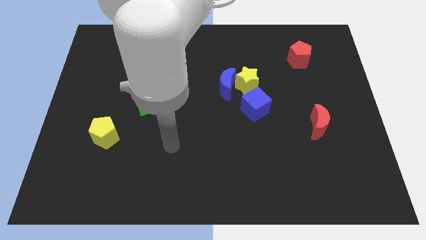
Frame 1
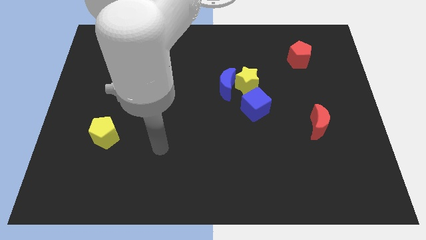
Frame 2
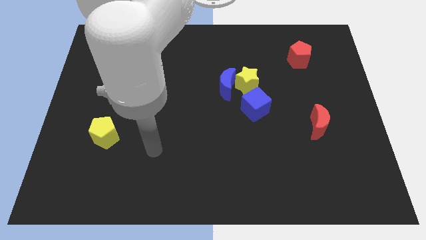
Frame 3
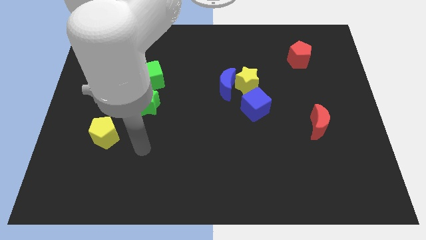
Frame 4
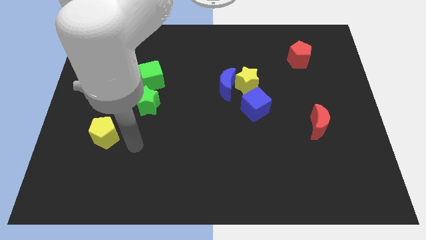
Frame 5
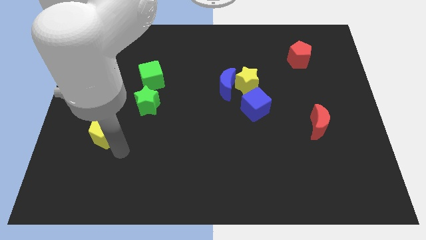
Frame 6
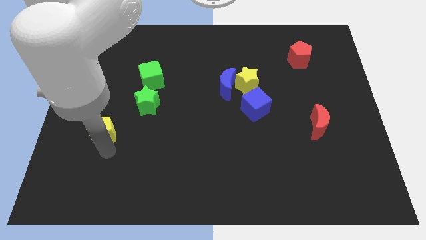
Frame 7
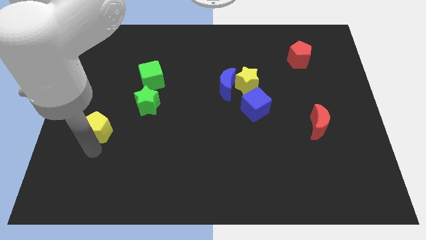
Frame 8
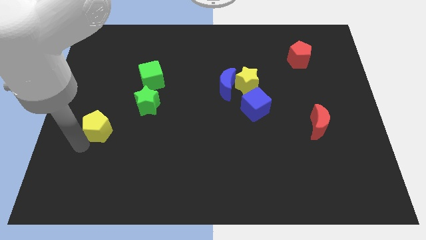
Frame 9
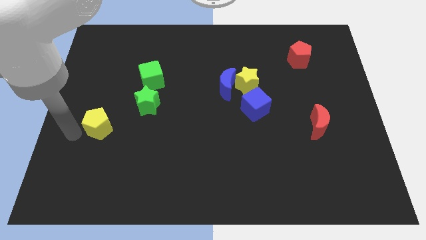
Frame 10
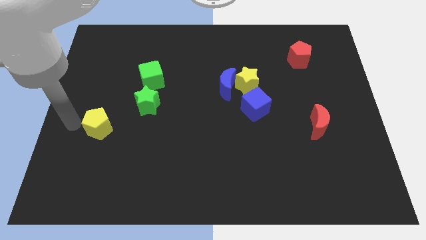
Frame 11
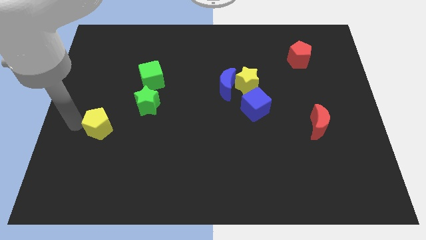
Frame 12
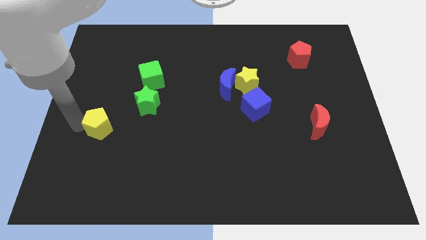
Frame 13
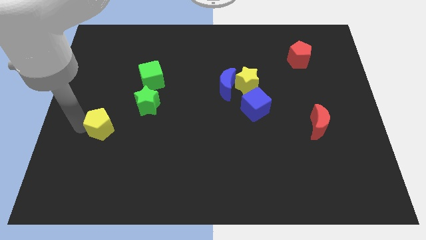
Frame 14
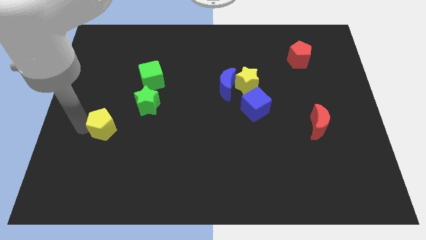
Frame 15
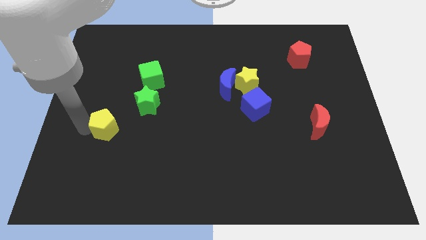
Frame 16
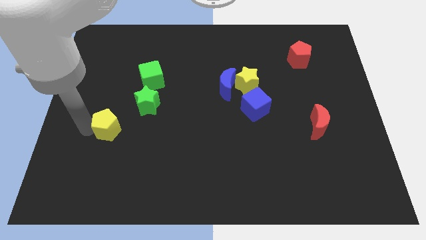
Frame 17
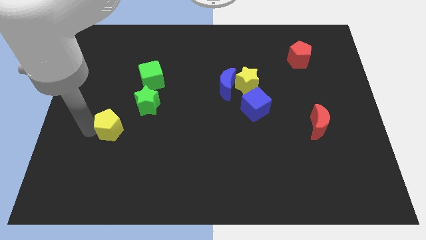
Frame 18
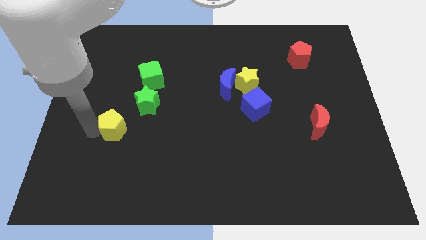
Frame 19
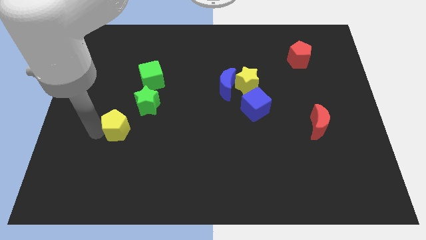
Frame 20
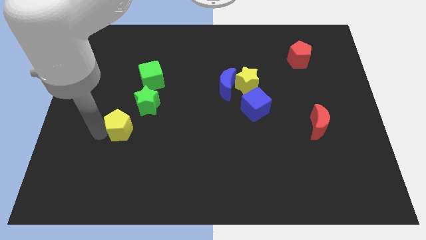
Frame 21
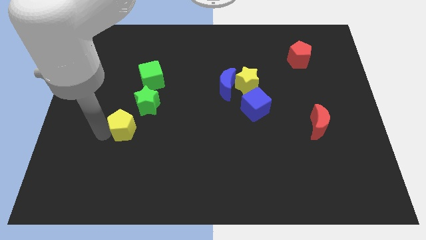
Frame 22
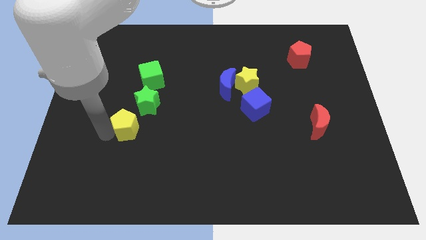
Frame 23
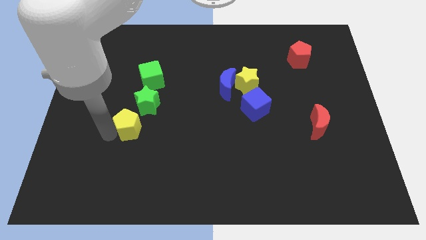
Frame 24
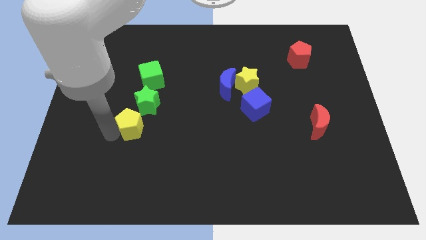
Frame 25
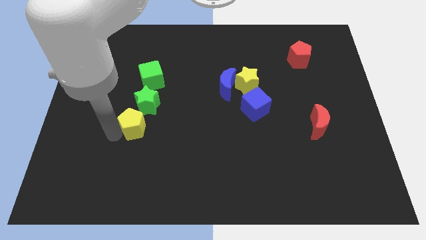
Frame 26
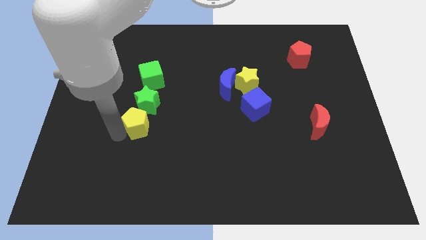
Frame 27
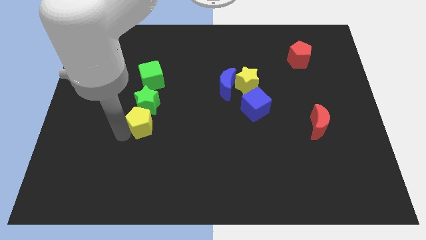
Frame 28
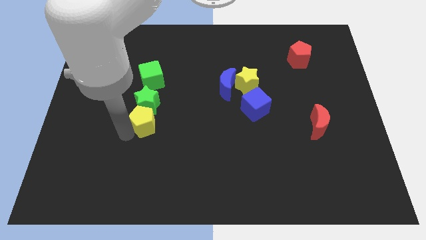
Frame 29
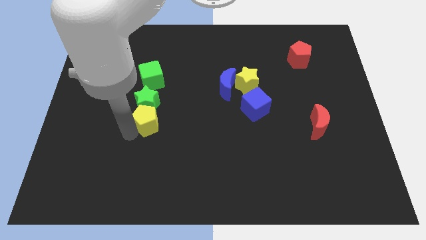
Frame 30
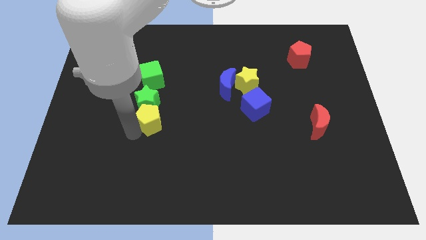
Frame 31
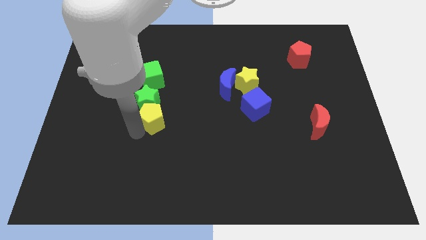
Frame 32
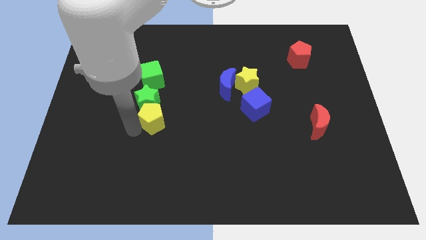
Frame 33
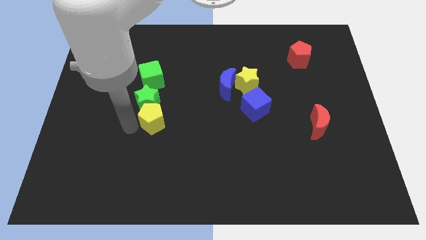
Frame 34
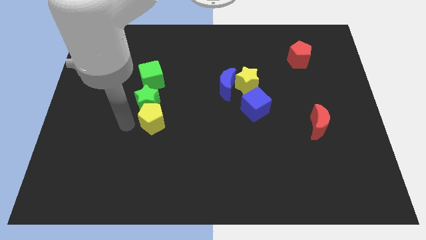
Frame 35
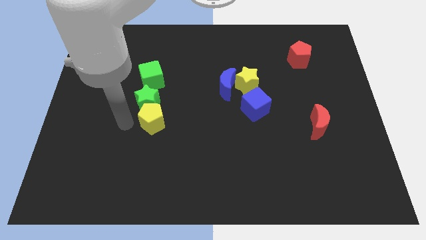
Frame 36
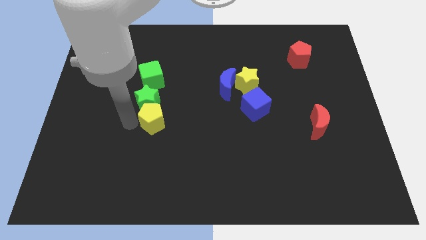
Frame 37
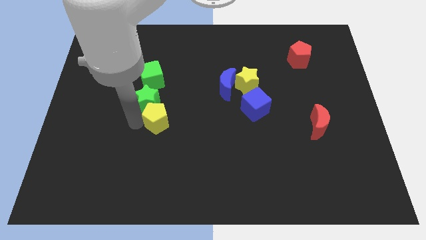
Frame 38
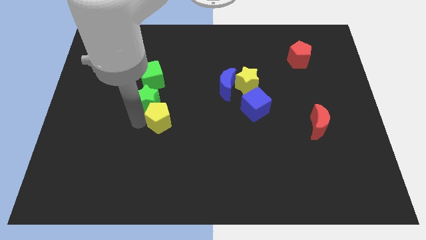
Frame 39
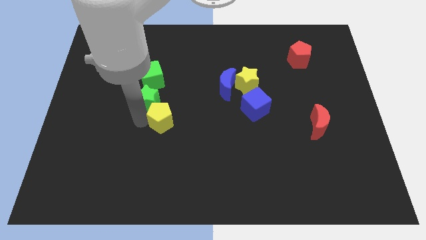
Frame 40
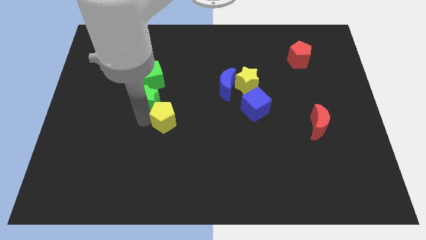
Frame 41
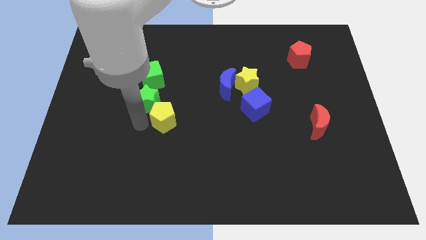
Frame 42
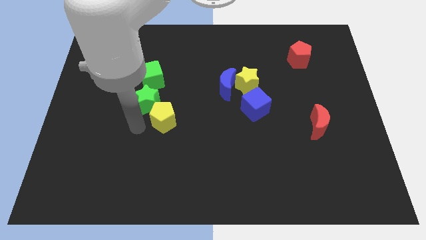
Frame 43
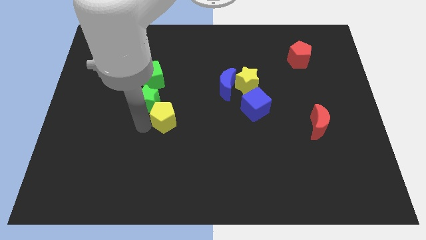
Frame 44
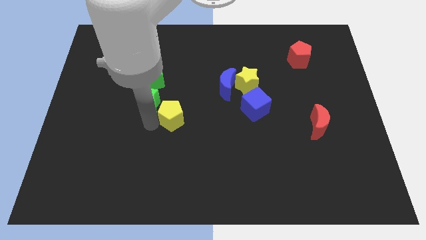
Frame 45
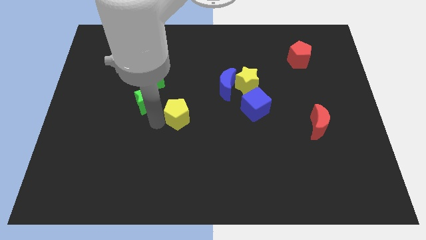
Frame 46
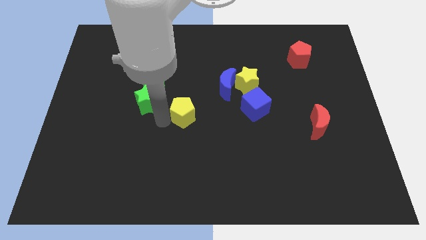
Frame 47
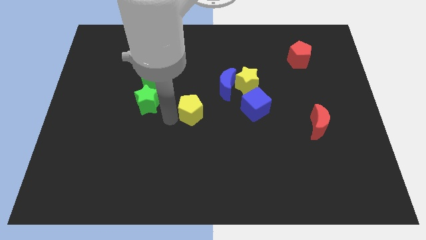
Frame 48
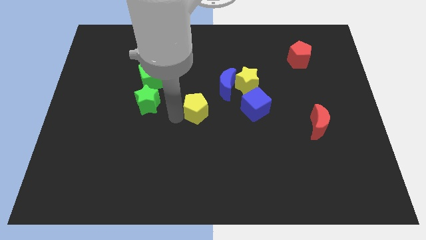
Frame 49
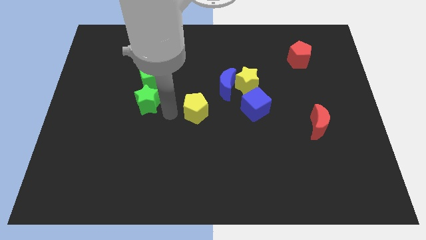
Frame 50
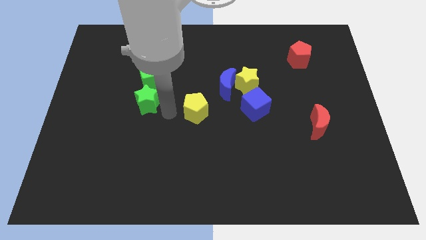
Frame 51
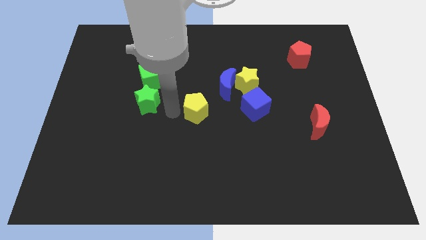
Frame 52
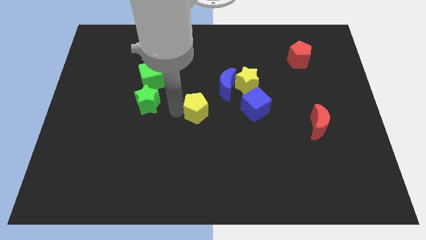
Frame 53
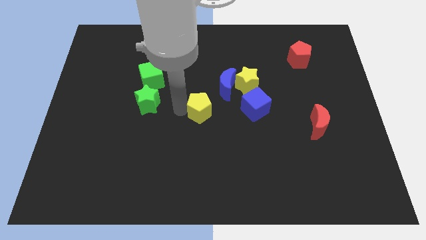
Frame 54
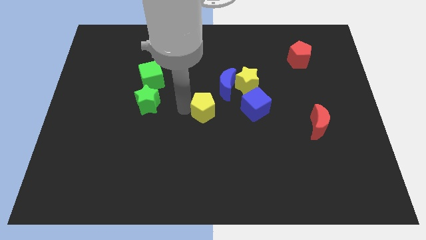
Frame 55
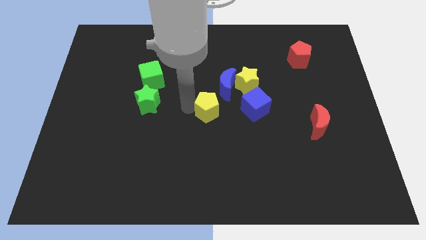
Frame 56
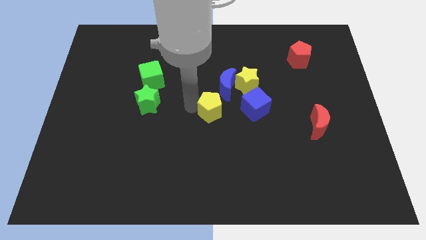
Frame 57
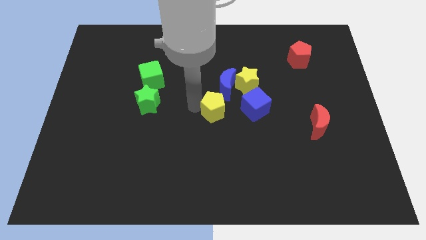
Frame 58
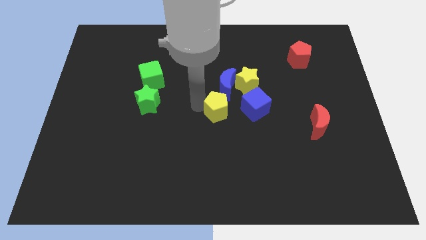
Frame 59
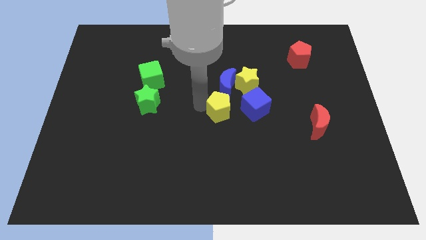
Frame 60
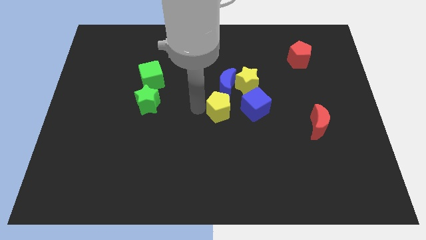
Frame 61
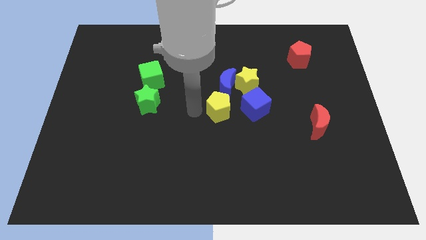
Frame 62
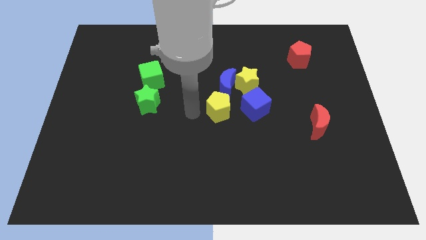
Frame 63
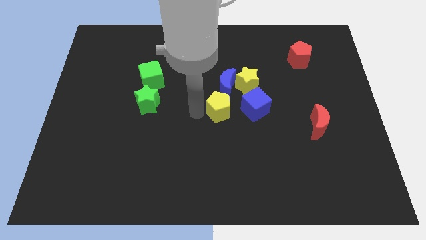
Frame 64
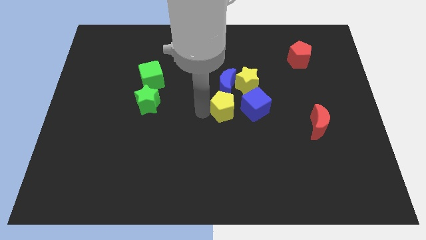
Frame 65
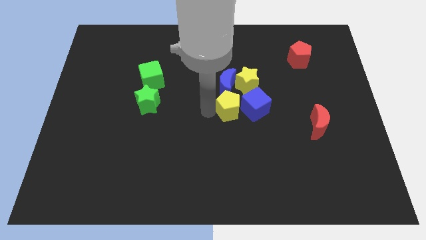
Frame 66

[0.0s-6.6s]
move the yellow pentagon close to the blue cube

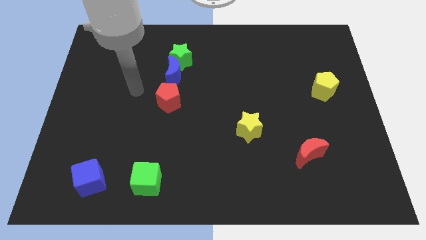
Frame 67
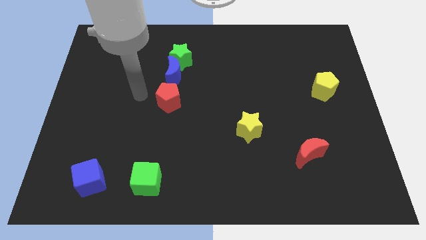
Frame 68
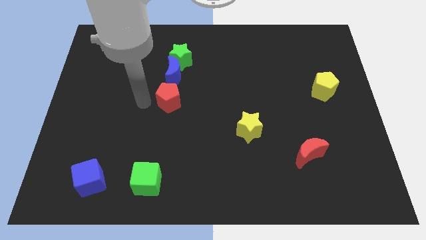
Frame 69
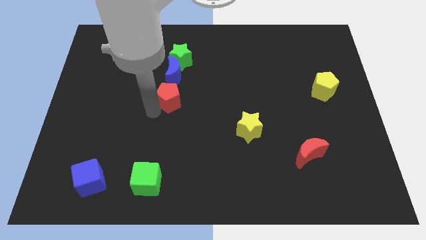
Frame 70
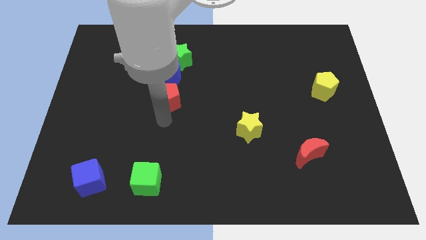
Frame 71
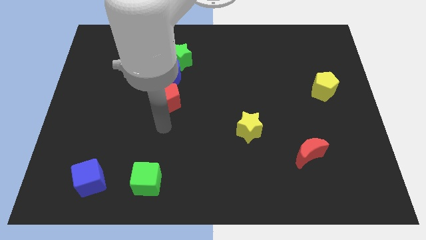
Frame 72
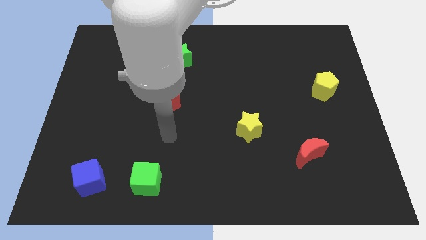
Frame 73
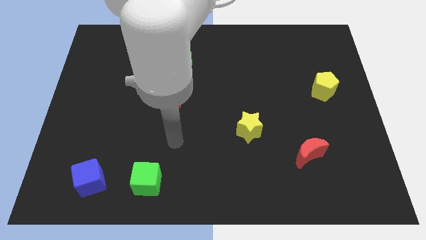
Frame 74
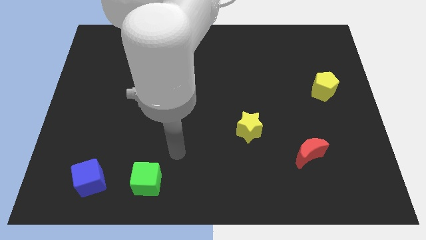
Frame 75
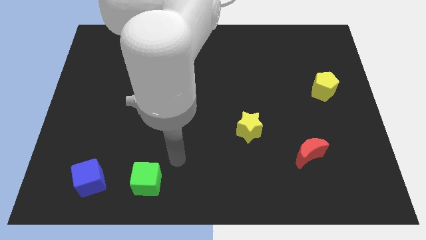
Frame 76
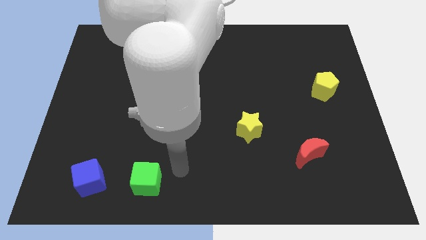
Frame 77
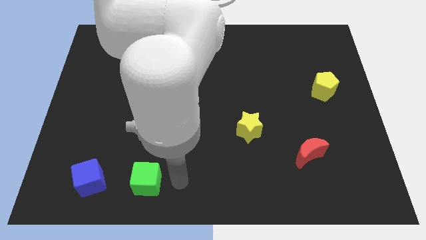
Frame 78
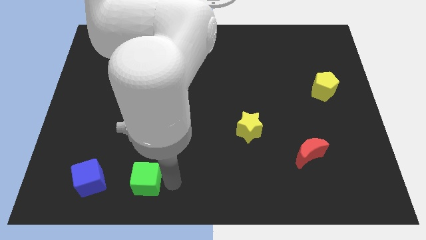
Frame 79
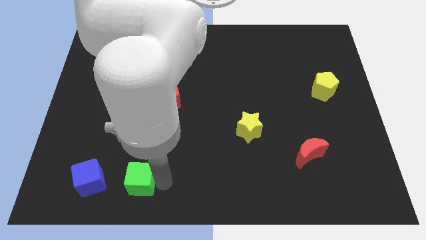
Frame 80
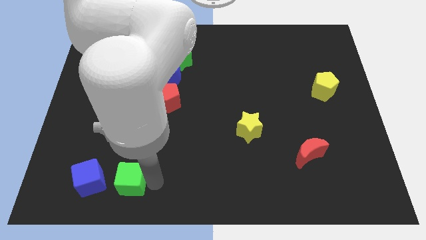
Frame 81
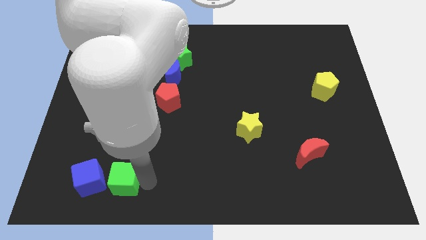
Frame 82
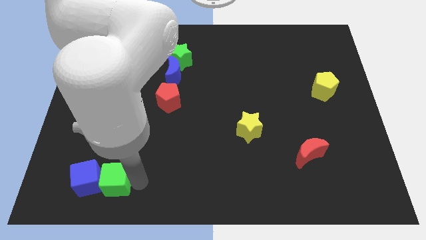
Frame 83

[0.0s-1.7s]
push the green cube towards the blue cube
